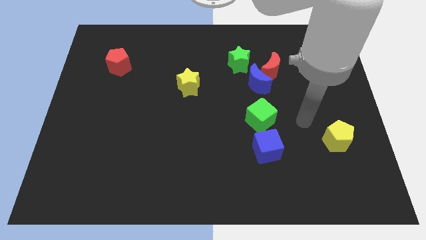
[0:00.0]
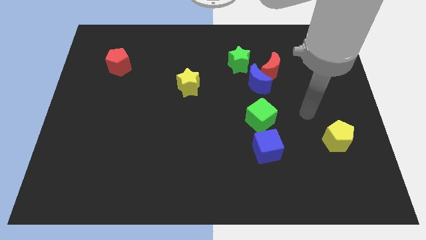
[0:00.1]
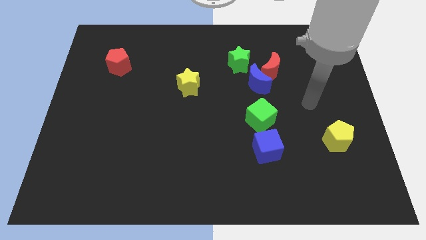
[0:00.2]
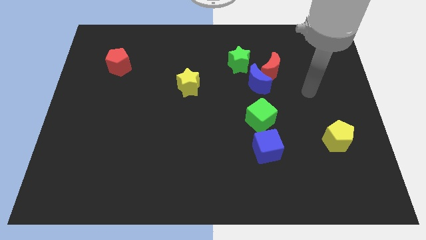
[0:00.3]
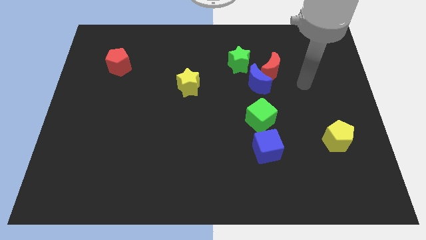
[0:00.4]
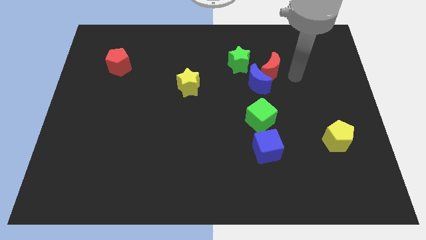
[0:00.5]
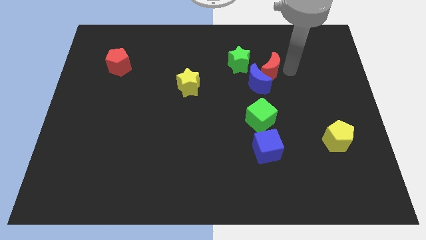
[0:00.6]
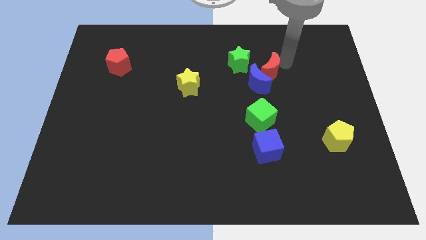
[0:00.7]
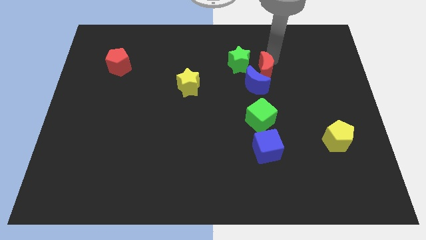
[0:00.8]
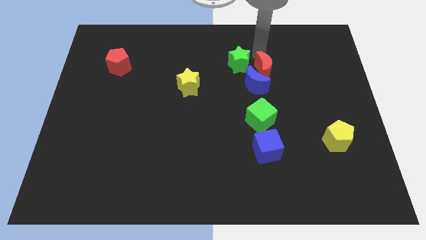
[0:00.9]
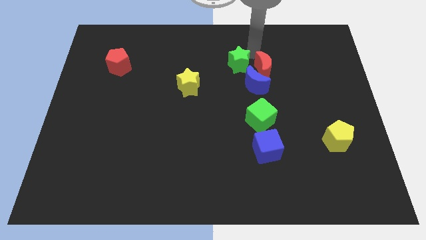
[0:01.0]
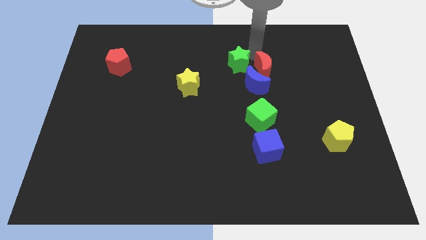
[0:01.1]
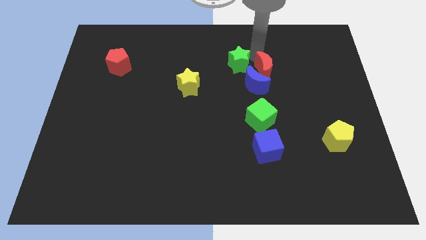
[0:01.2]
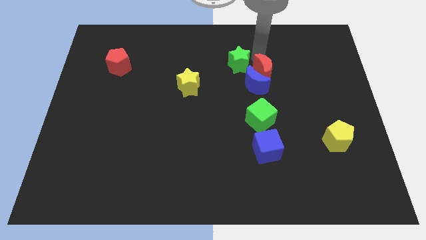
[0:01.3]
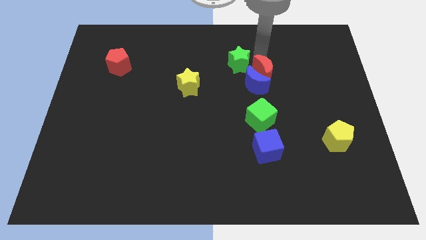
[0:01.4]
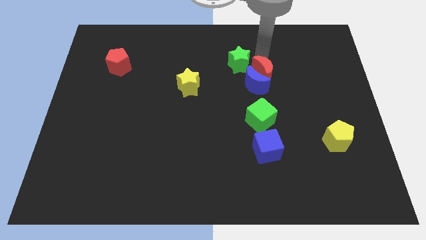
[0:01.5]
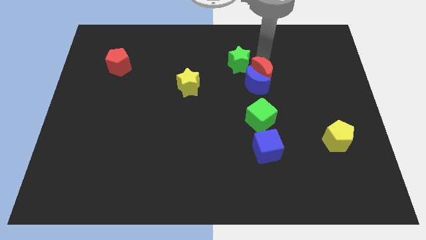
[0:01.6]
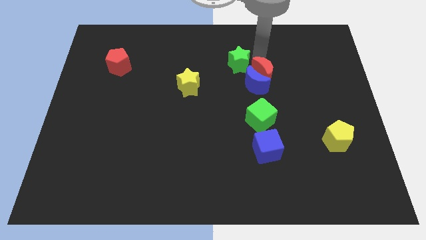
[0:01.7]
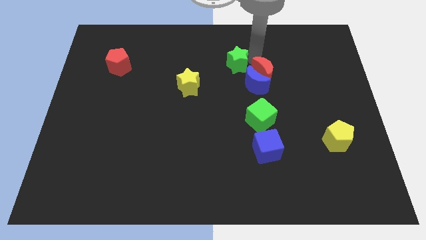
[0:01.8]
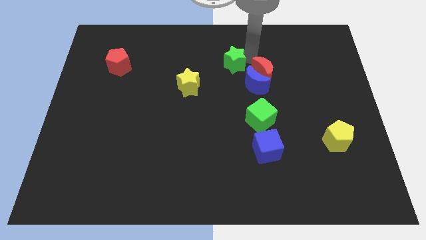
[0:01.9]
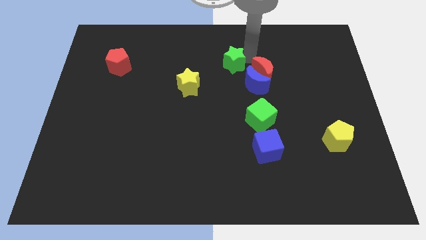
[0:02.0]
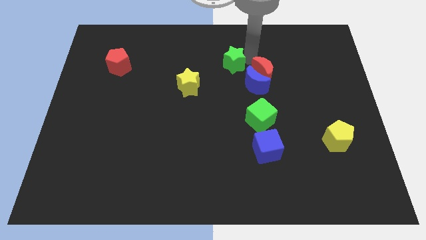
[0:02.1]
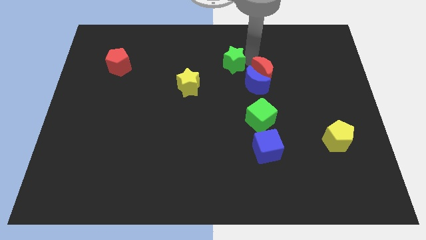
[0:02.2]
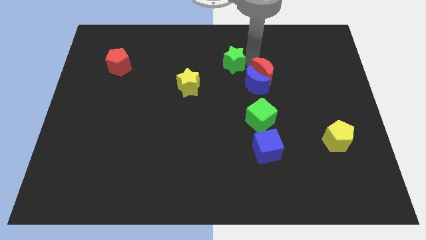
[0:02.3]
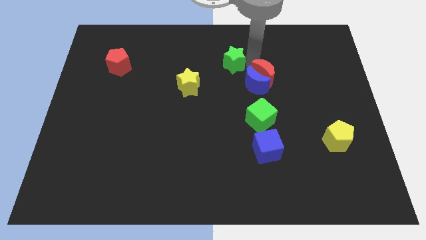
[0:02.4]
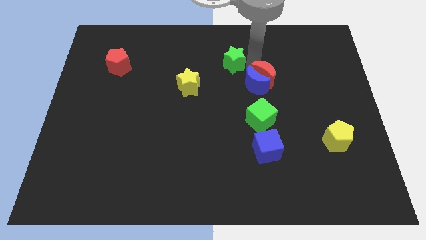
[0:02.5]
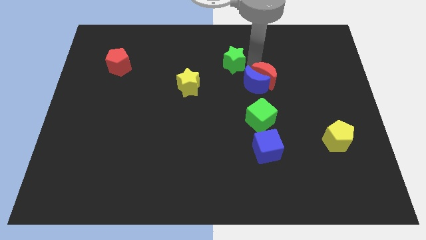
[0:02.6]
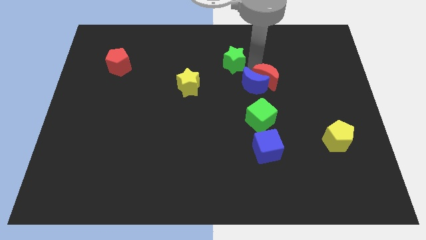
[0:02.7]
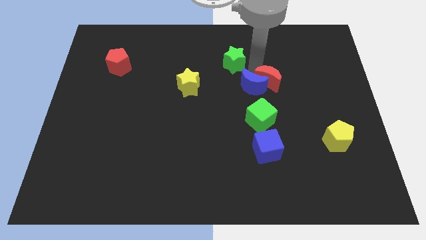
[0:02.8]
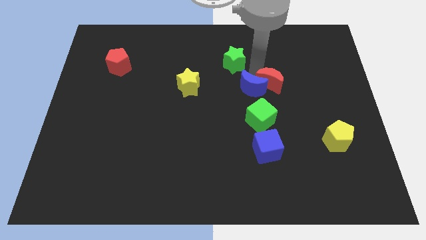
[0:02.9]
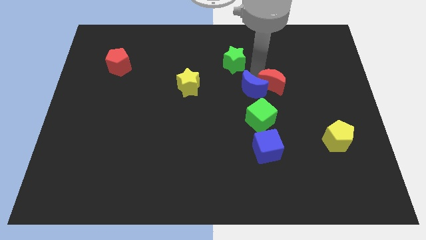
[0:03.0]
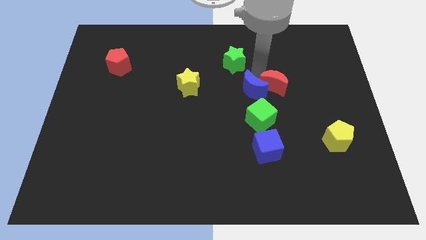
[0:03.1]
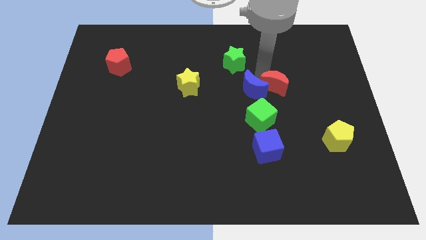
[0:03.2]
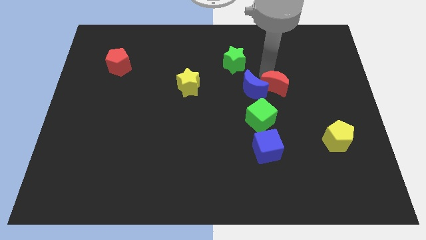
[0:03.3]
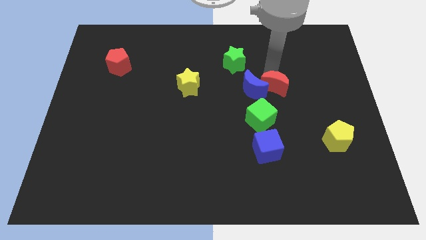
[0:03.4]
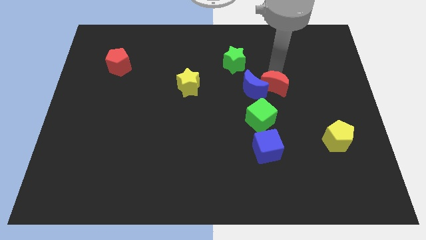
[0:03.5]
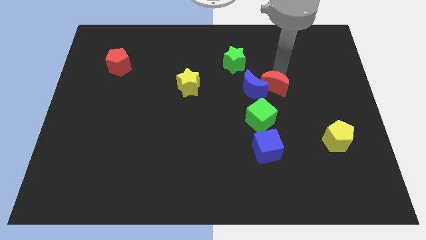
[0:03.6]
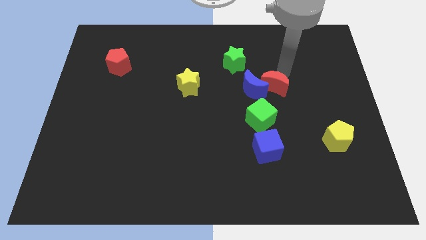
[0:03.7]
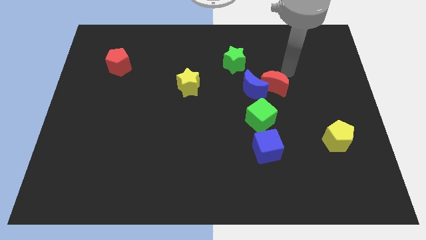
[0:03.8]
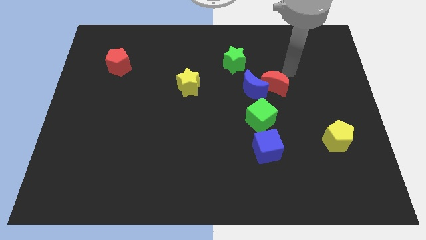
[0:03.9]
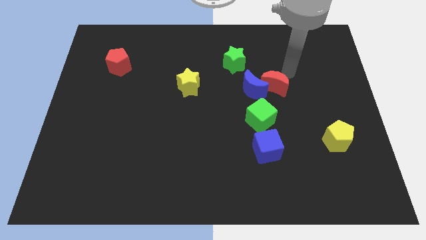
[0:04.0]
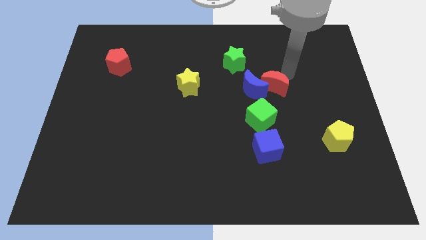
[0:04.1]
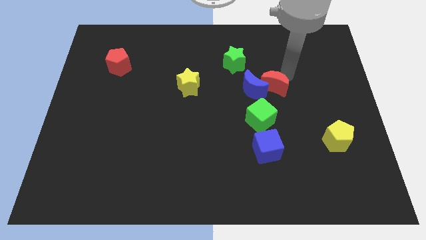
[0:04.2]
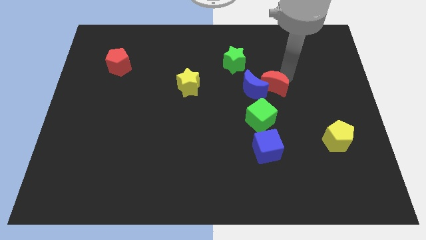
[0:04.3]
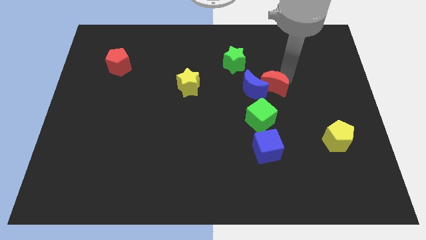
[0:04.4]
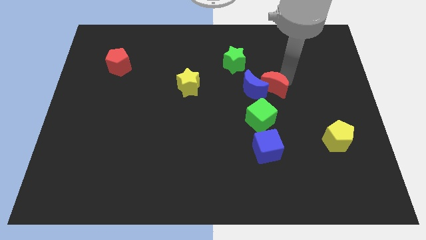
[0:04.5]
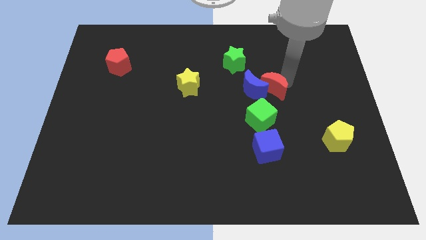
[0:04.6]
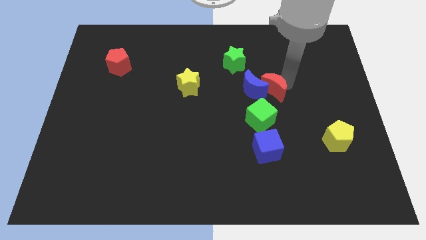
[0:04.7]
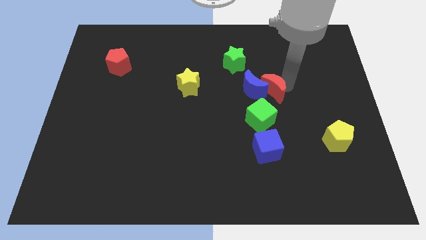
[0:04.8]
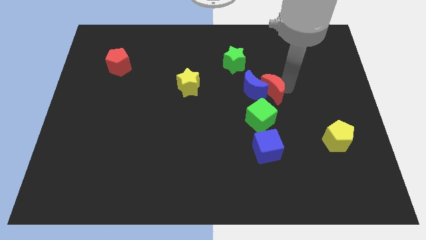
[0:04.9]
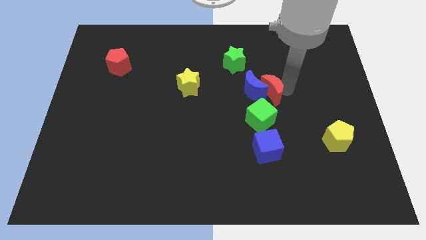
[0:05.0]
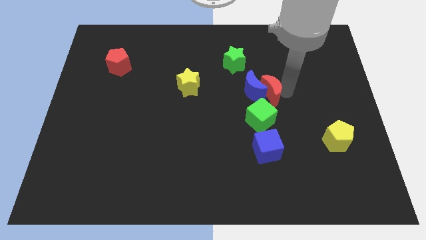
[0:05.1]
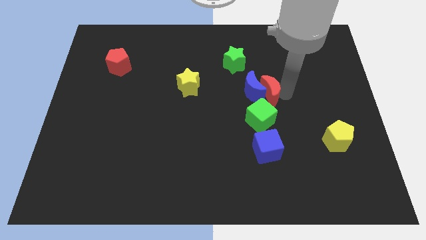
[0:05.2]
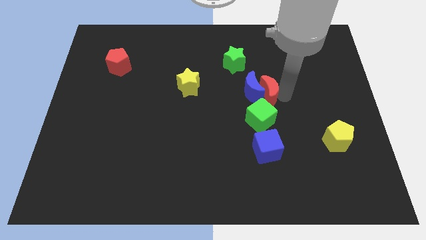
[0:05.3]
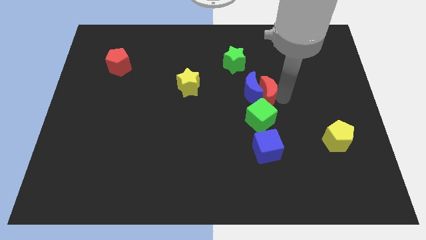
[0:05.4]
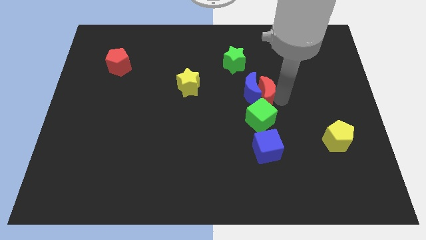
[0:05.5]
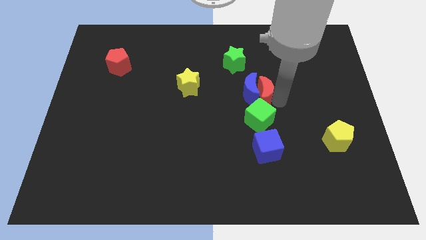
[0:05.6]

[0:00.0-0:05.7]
slide the red moon to the center
